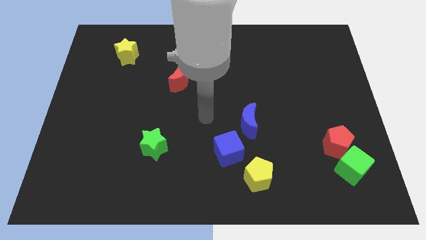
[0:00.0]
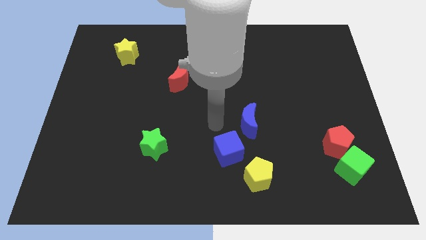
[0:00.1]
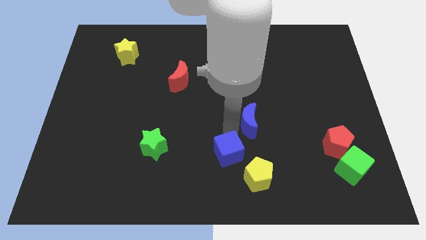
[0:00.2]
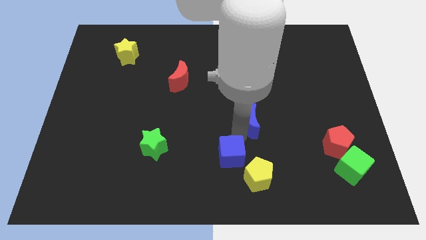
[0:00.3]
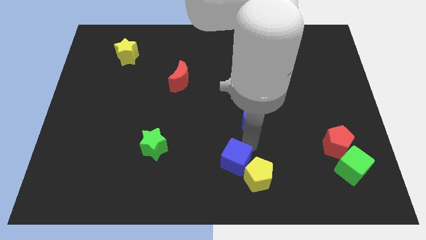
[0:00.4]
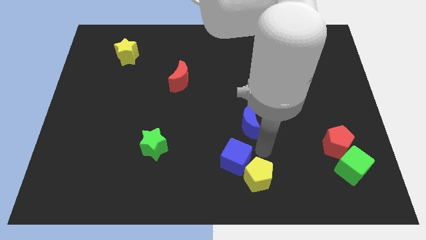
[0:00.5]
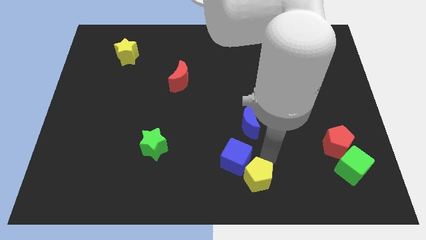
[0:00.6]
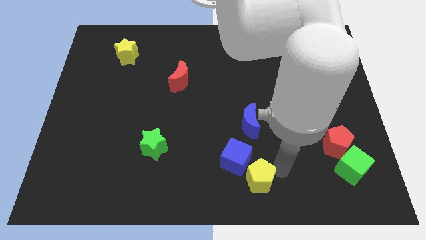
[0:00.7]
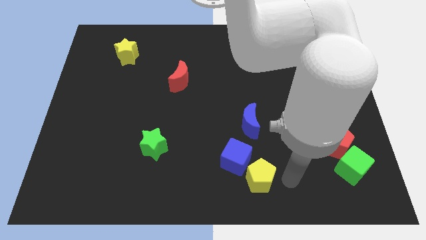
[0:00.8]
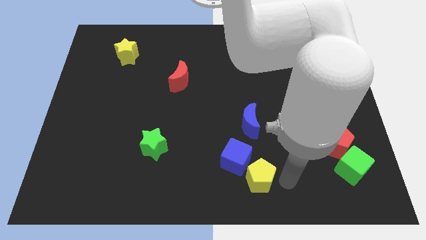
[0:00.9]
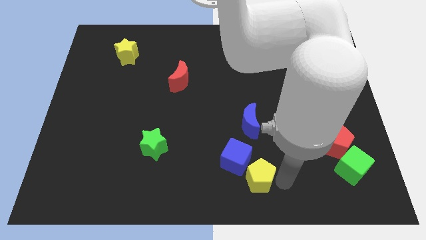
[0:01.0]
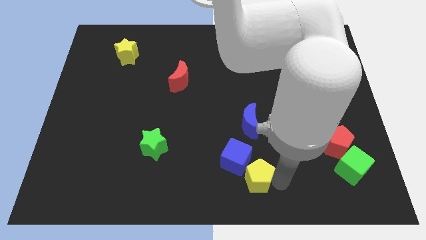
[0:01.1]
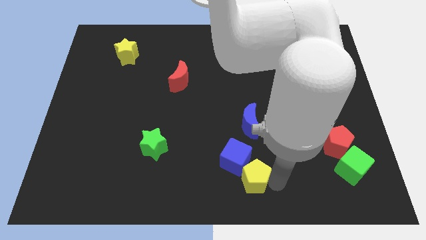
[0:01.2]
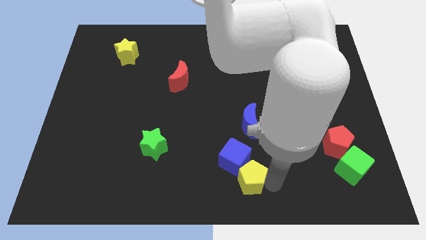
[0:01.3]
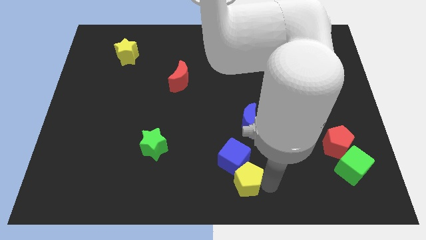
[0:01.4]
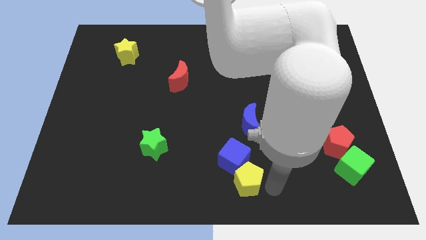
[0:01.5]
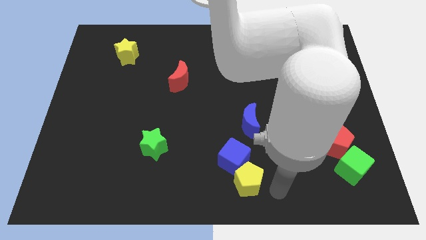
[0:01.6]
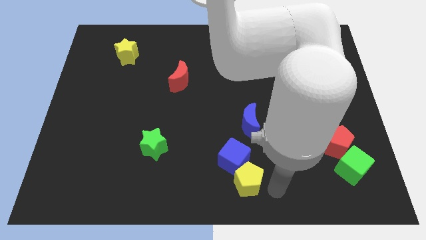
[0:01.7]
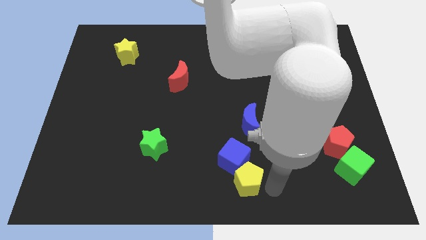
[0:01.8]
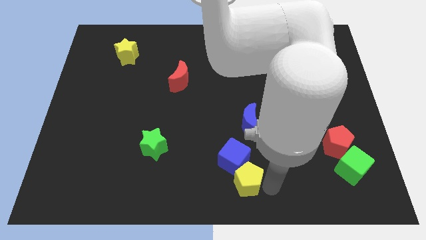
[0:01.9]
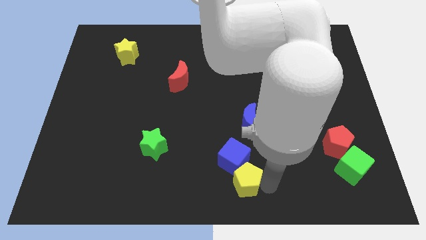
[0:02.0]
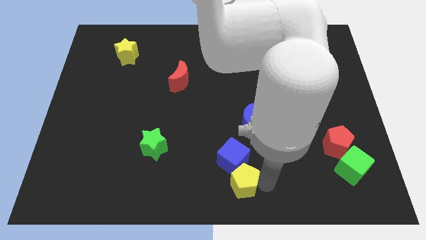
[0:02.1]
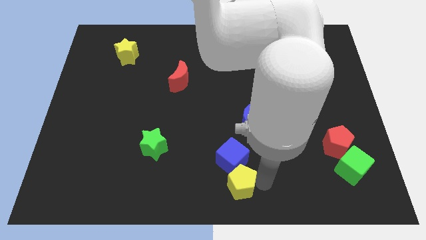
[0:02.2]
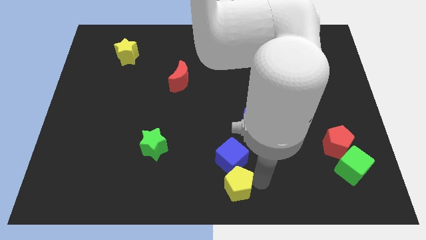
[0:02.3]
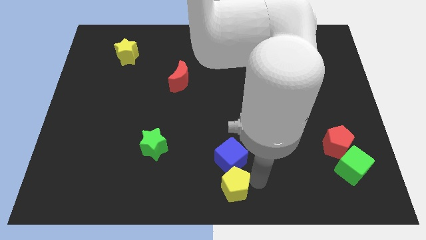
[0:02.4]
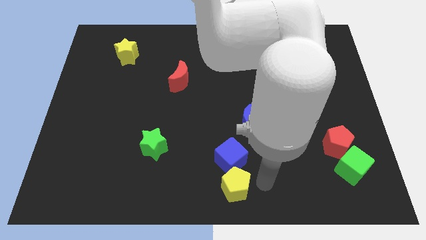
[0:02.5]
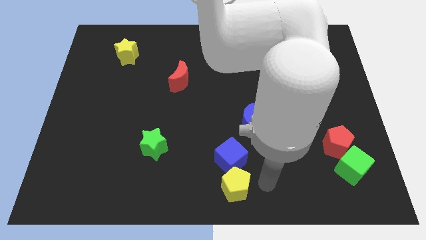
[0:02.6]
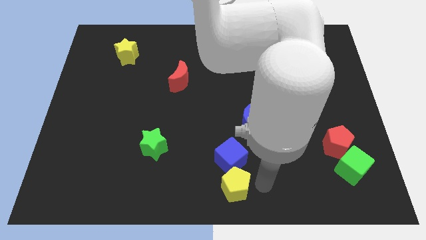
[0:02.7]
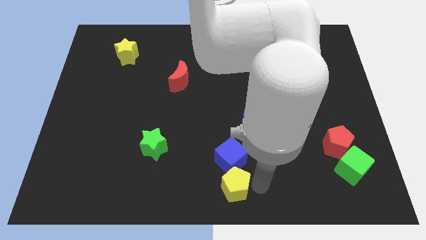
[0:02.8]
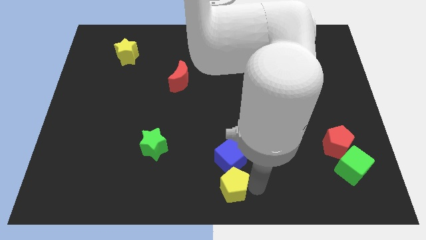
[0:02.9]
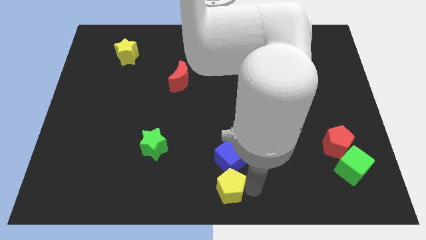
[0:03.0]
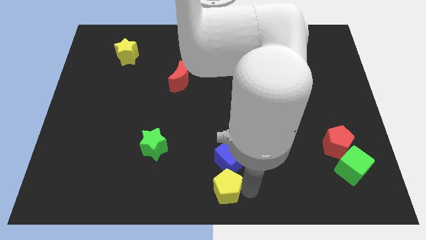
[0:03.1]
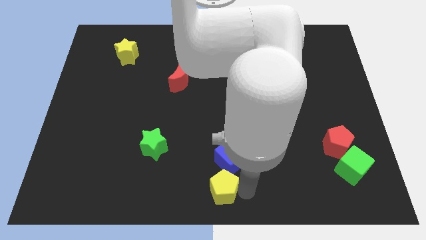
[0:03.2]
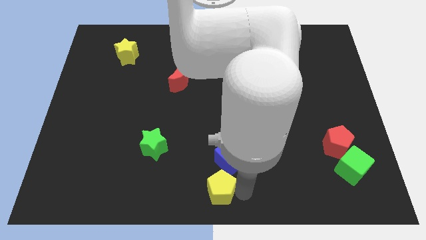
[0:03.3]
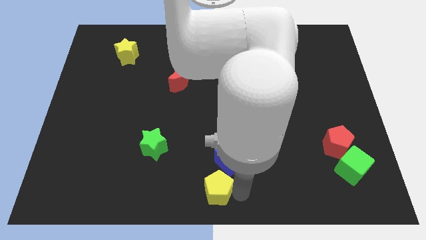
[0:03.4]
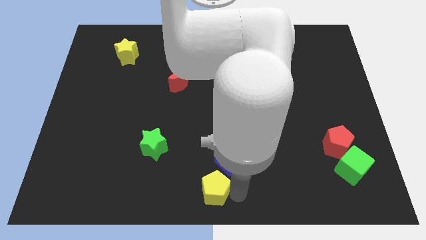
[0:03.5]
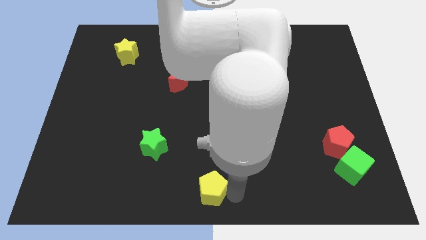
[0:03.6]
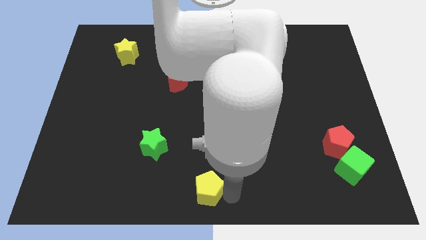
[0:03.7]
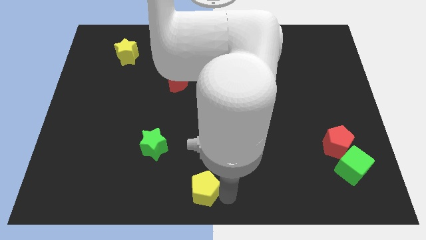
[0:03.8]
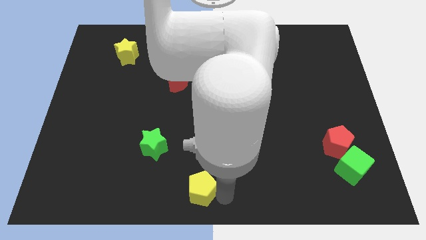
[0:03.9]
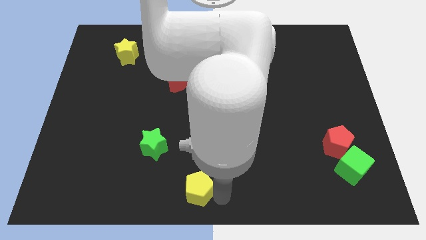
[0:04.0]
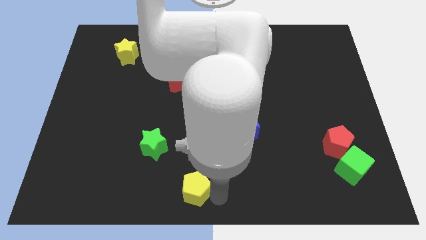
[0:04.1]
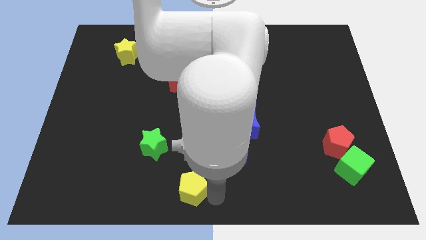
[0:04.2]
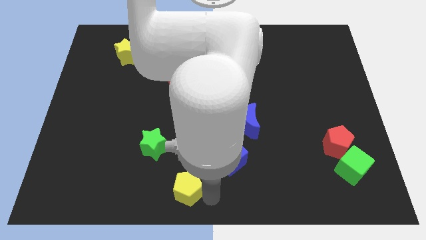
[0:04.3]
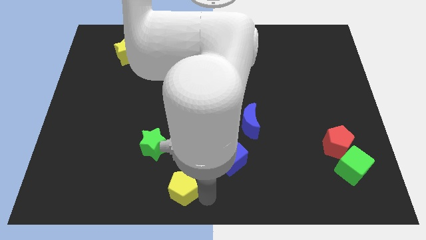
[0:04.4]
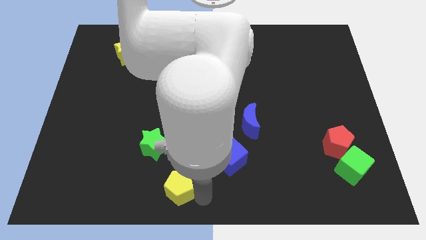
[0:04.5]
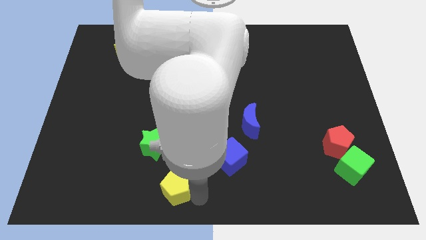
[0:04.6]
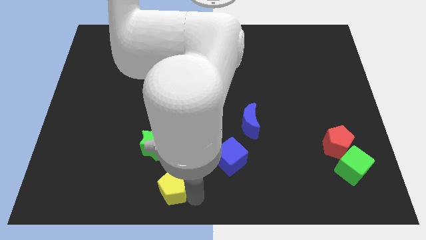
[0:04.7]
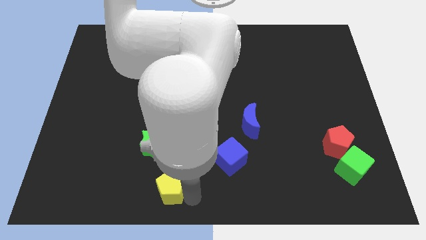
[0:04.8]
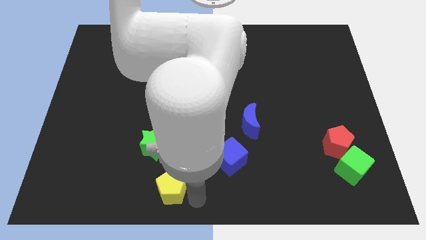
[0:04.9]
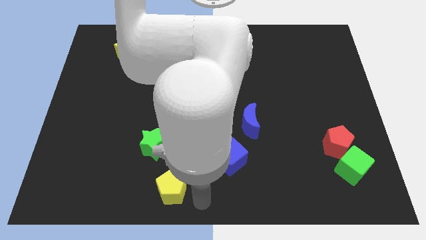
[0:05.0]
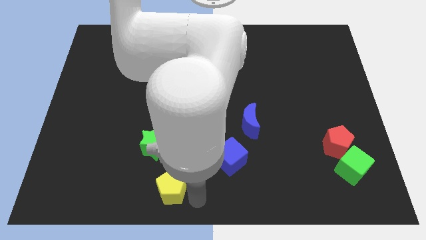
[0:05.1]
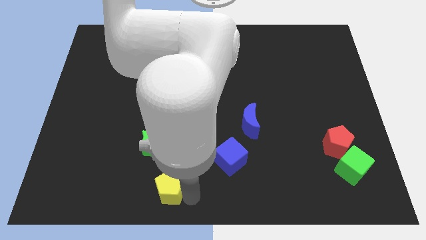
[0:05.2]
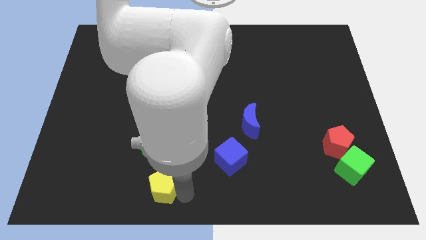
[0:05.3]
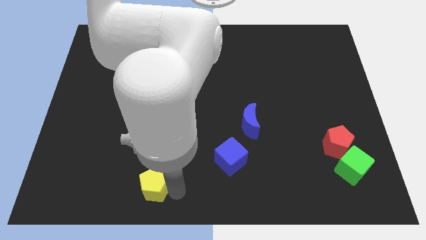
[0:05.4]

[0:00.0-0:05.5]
move the yellow pentagon left

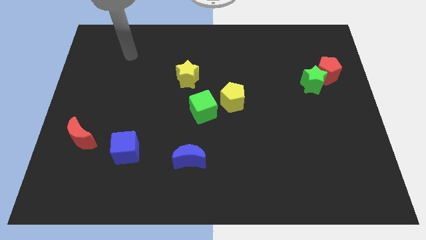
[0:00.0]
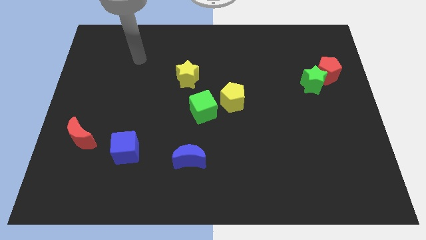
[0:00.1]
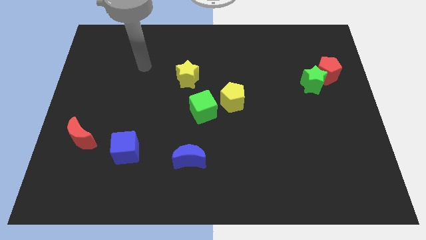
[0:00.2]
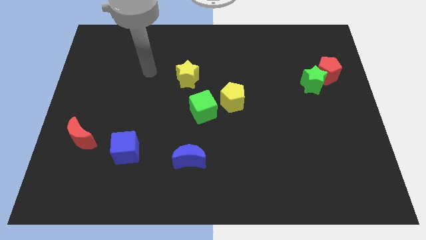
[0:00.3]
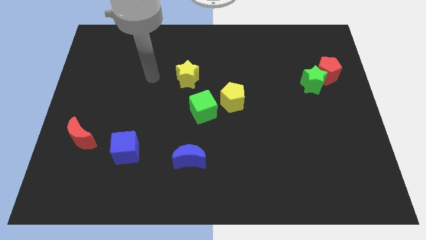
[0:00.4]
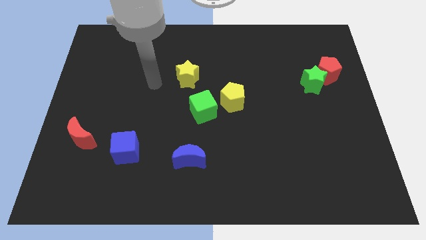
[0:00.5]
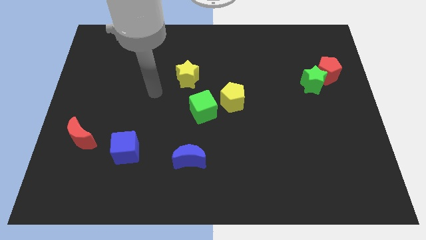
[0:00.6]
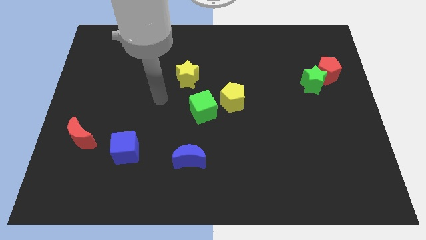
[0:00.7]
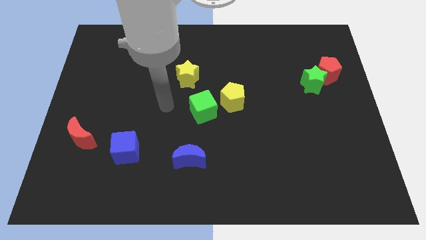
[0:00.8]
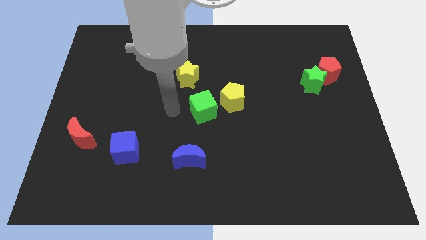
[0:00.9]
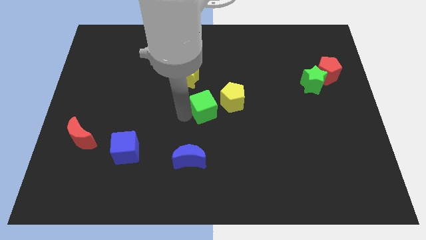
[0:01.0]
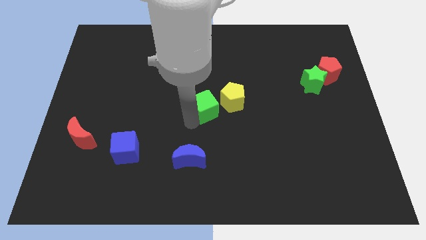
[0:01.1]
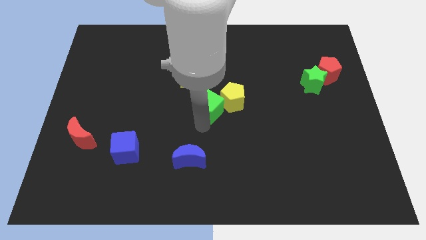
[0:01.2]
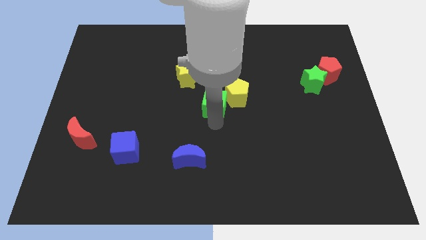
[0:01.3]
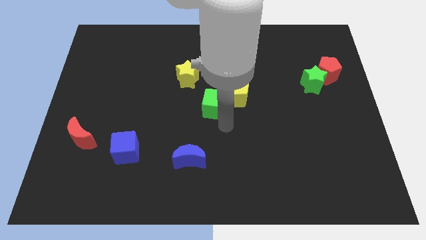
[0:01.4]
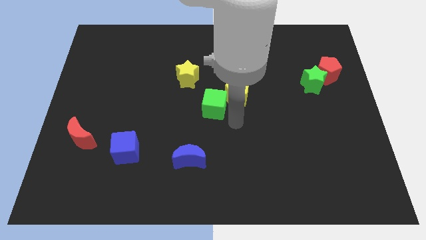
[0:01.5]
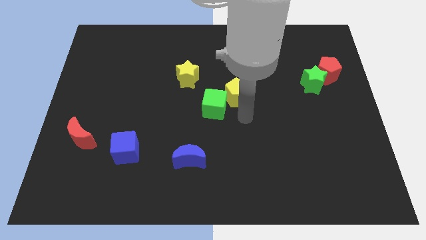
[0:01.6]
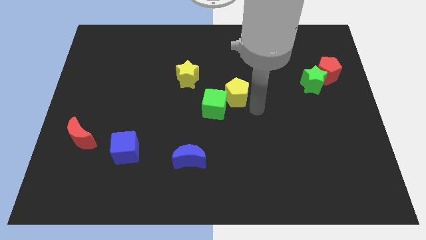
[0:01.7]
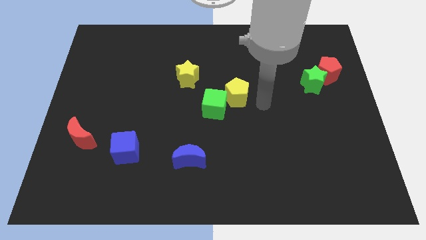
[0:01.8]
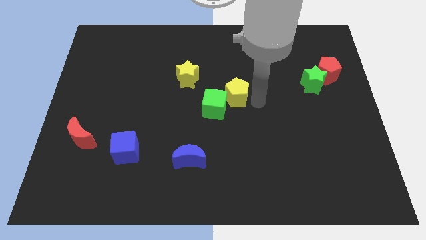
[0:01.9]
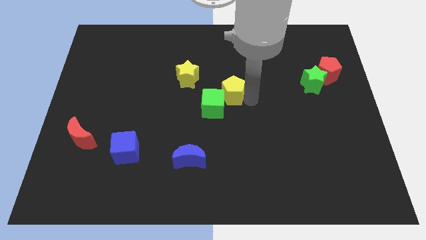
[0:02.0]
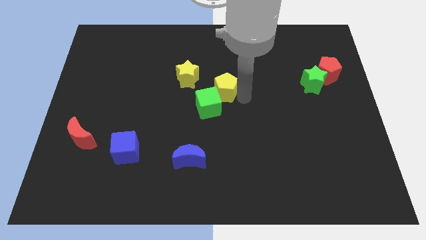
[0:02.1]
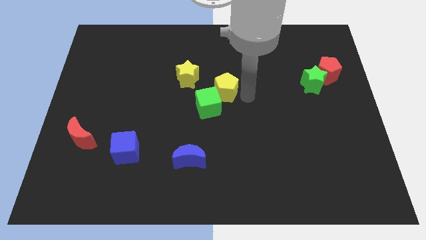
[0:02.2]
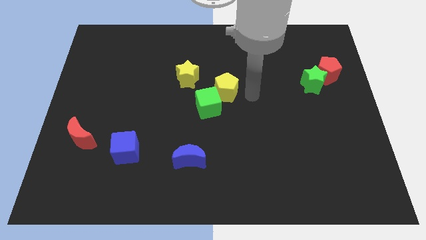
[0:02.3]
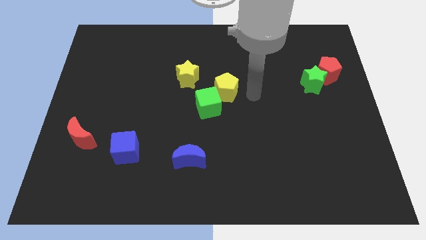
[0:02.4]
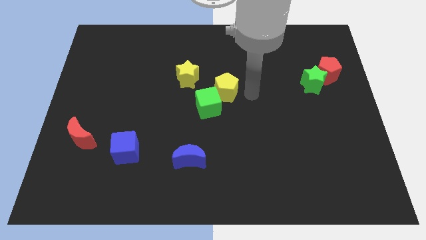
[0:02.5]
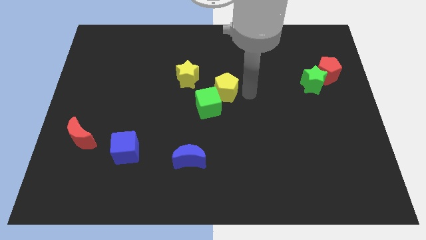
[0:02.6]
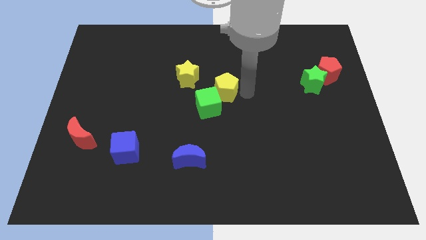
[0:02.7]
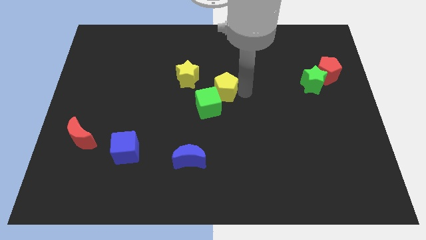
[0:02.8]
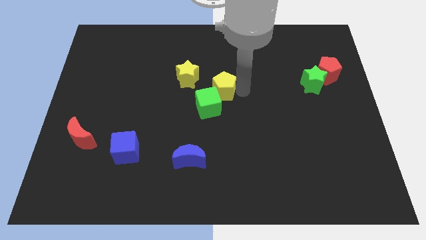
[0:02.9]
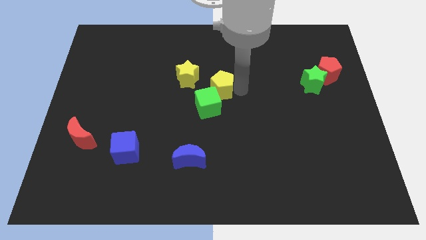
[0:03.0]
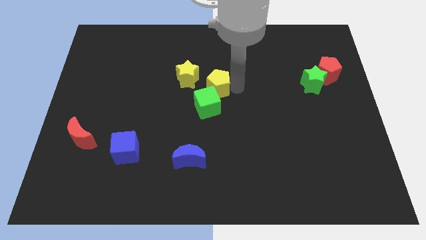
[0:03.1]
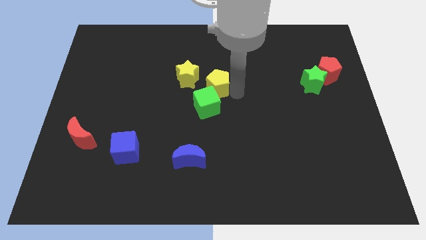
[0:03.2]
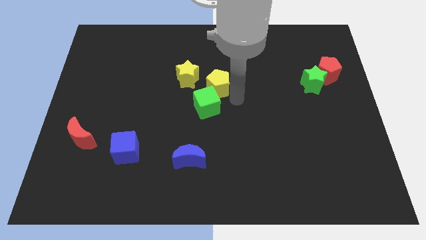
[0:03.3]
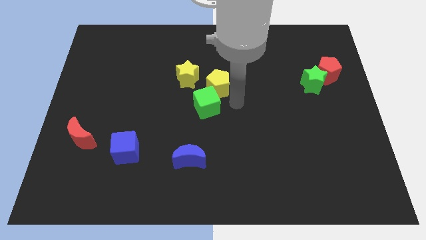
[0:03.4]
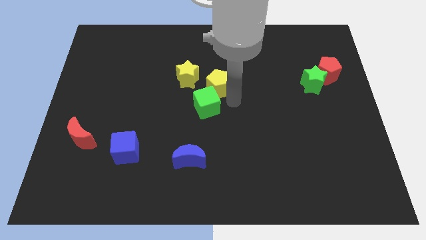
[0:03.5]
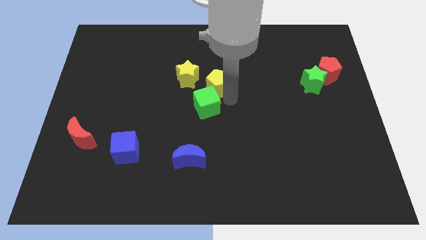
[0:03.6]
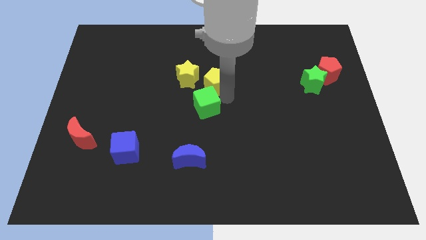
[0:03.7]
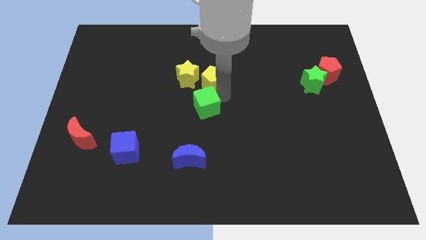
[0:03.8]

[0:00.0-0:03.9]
push the yellow pentagon upwards and left a little
